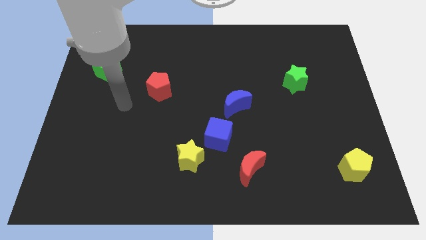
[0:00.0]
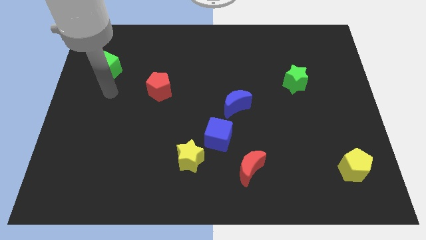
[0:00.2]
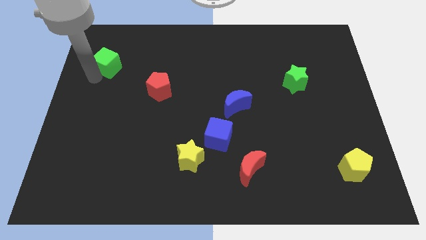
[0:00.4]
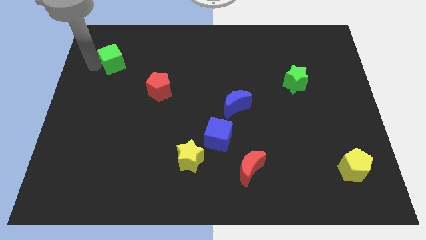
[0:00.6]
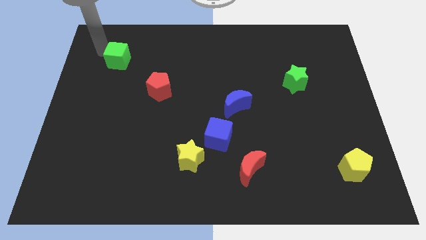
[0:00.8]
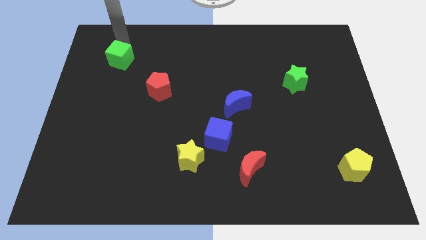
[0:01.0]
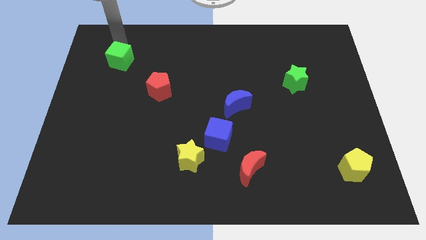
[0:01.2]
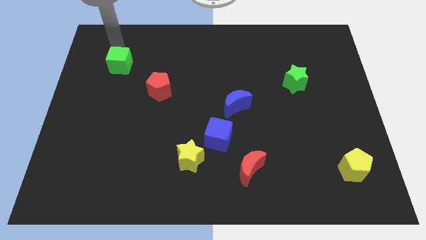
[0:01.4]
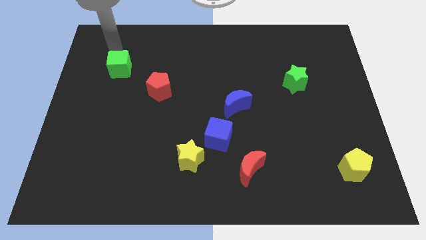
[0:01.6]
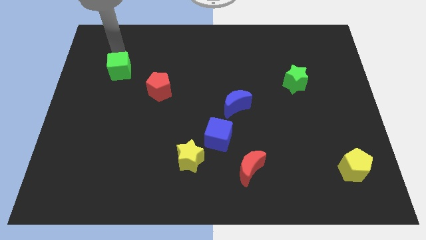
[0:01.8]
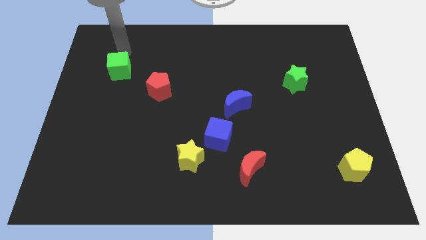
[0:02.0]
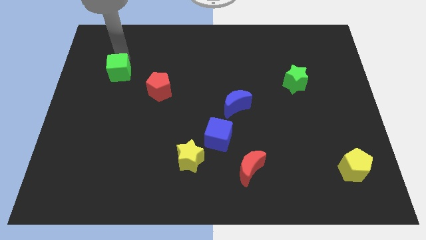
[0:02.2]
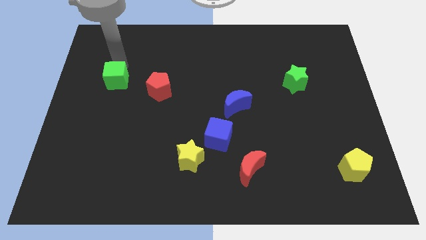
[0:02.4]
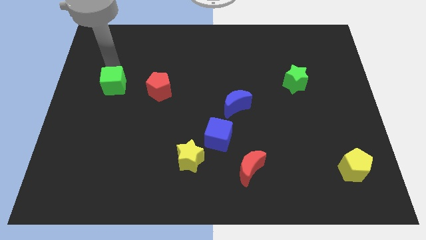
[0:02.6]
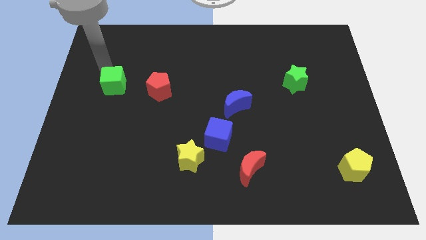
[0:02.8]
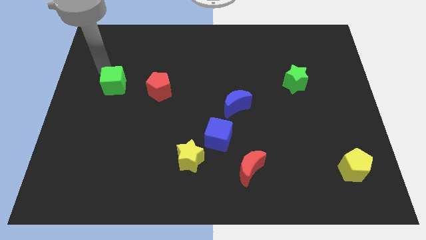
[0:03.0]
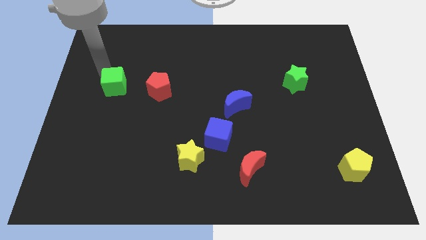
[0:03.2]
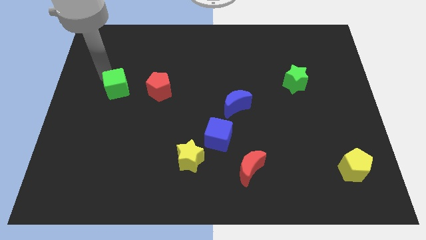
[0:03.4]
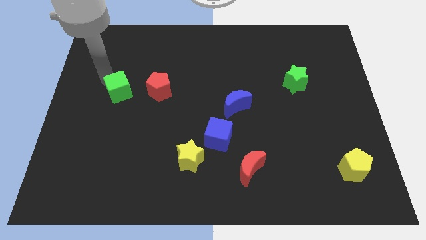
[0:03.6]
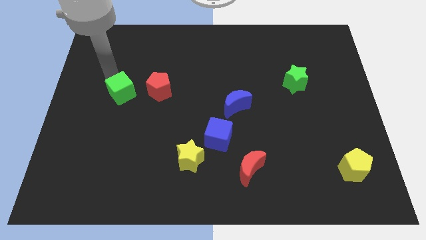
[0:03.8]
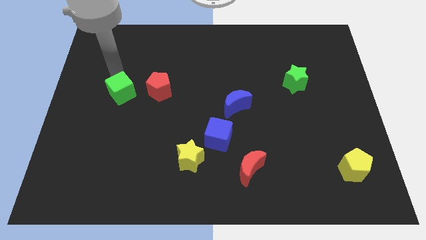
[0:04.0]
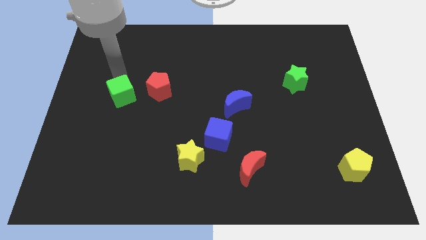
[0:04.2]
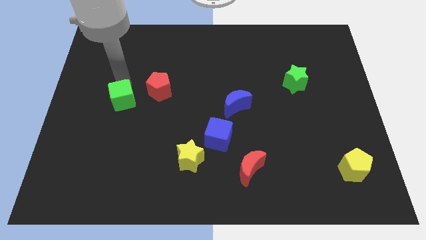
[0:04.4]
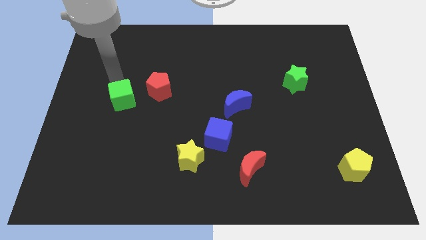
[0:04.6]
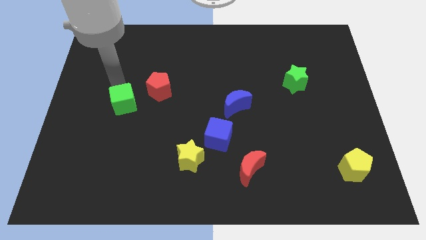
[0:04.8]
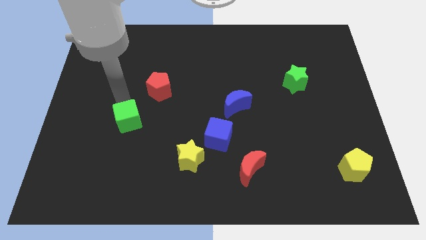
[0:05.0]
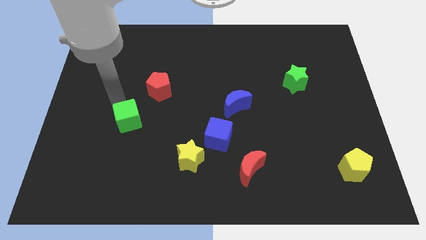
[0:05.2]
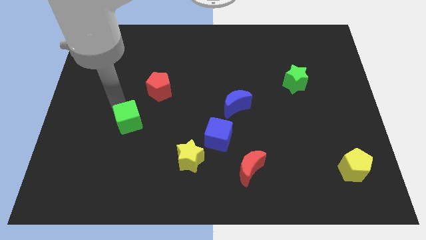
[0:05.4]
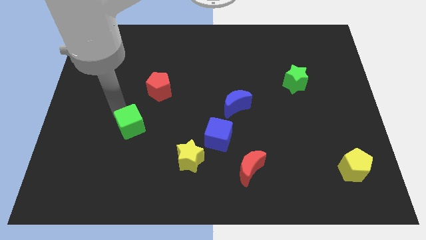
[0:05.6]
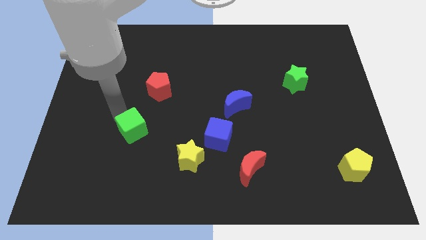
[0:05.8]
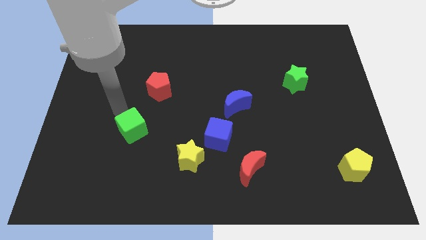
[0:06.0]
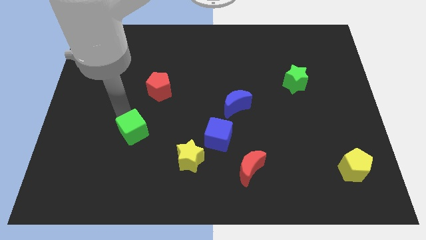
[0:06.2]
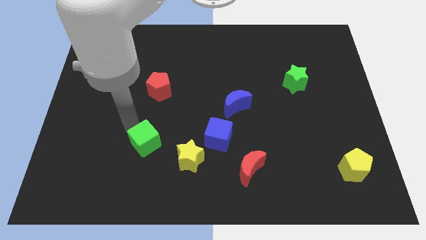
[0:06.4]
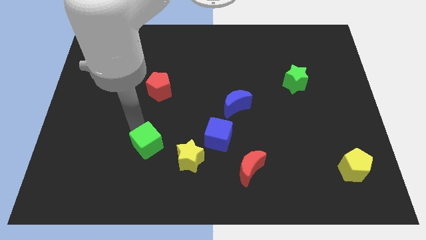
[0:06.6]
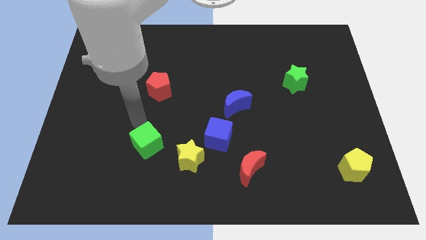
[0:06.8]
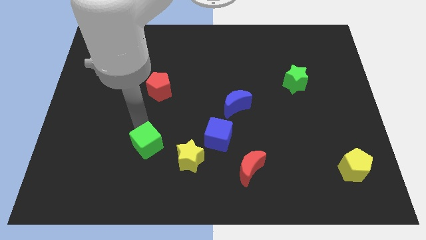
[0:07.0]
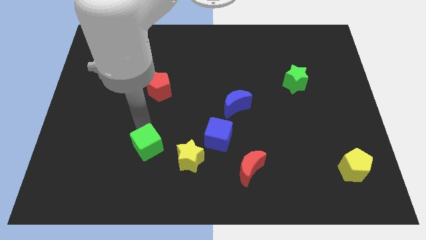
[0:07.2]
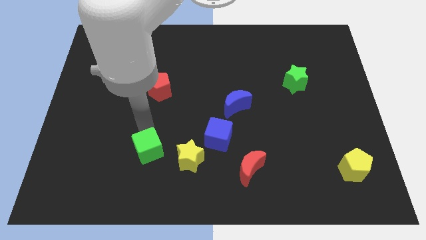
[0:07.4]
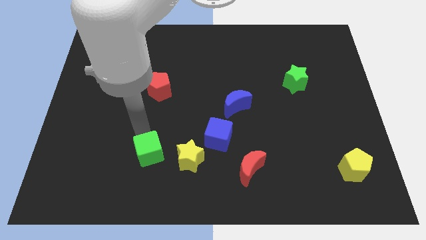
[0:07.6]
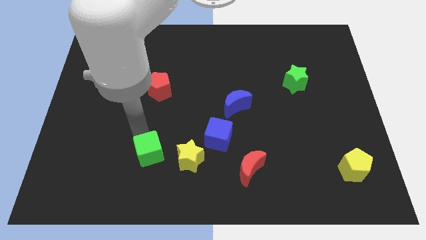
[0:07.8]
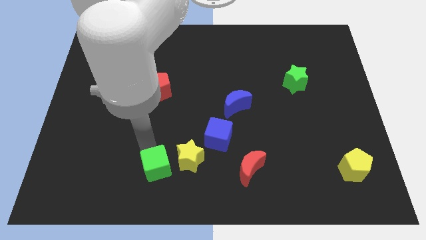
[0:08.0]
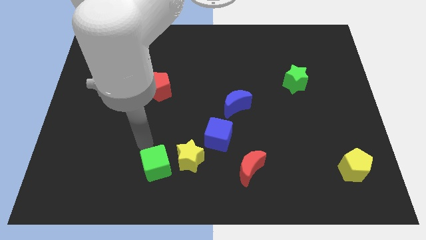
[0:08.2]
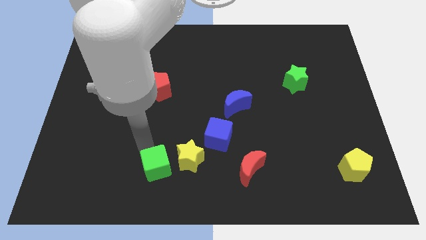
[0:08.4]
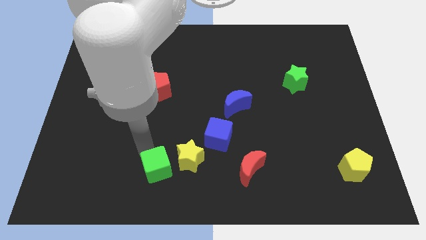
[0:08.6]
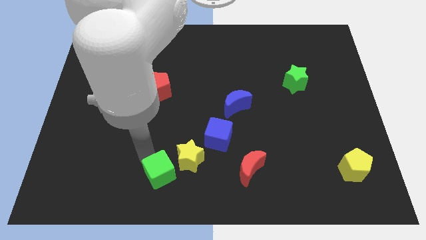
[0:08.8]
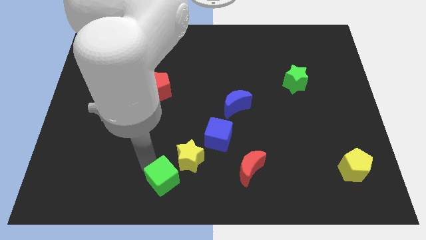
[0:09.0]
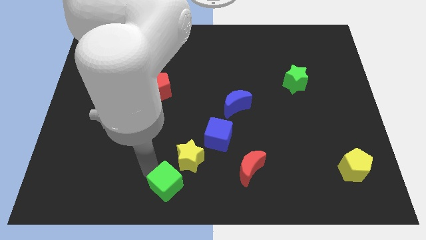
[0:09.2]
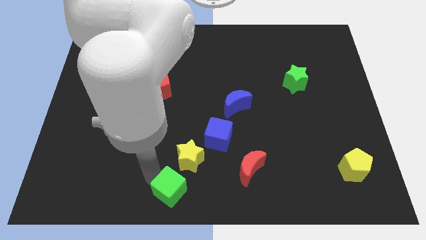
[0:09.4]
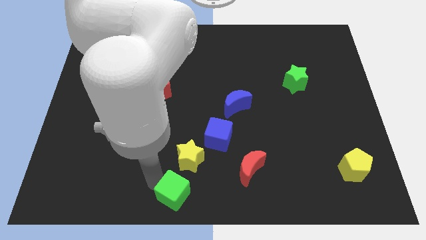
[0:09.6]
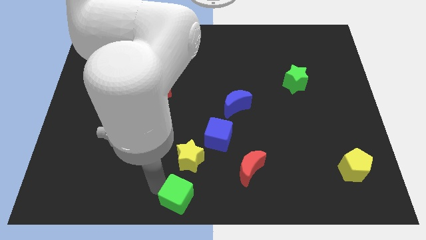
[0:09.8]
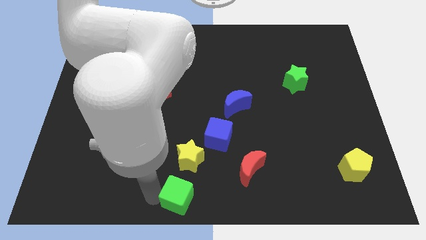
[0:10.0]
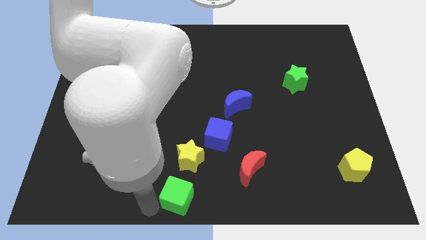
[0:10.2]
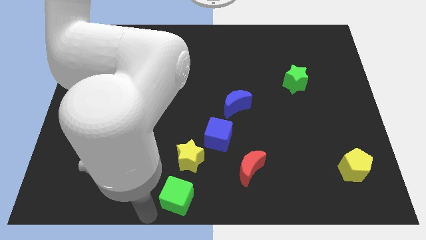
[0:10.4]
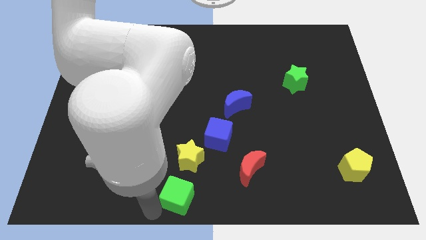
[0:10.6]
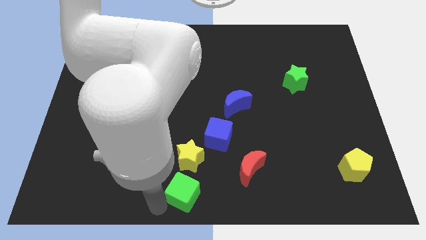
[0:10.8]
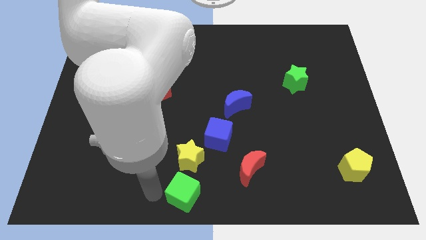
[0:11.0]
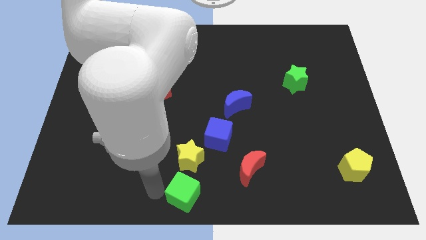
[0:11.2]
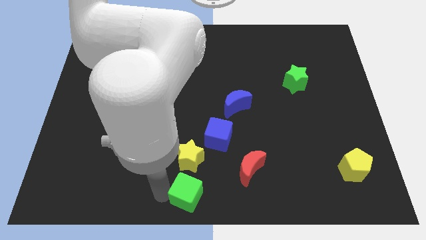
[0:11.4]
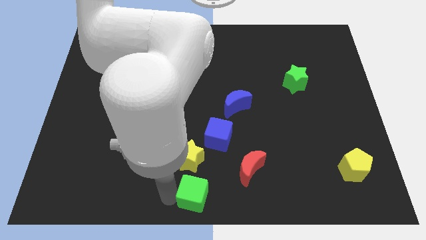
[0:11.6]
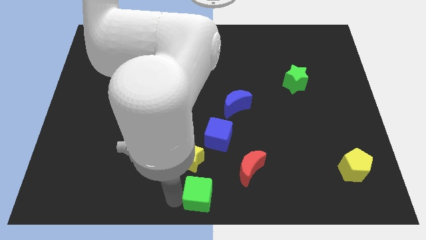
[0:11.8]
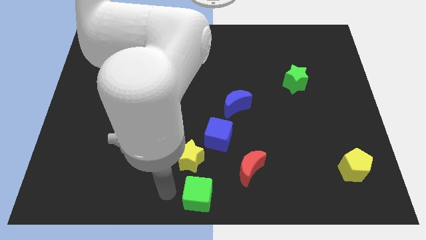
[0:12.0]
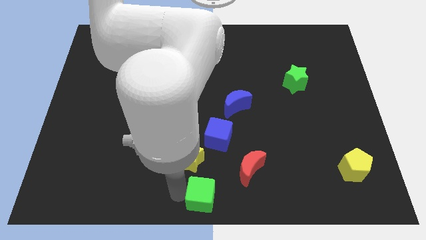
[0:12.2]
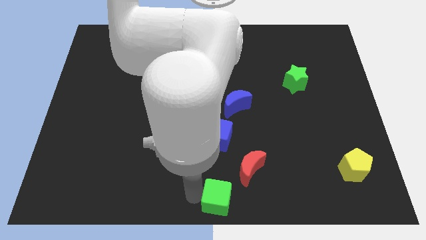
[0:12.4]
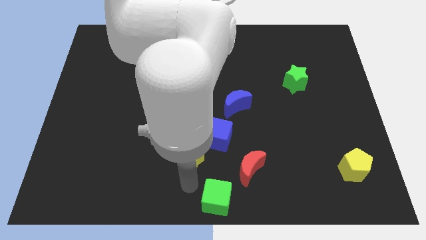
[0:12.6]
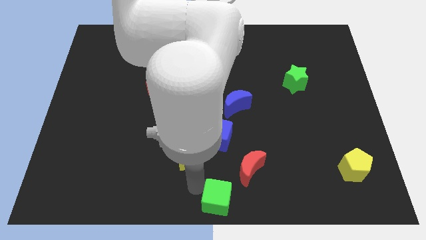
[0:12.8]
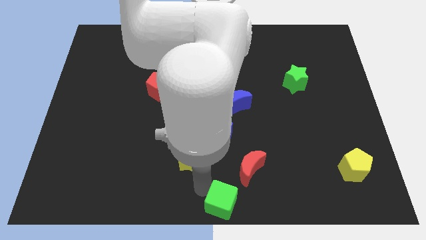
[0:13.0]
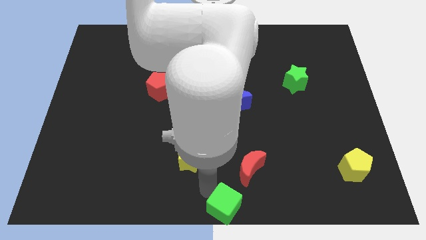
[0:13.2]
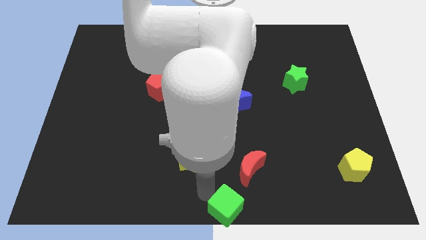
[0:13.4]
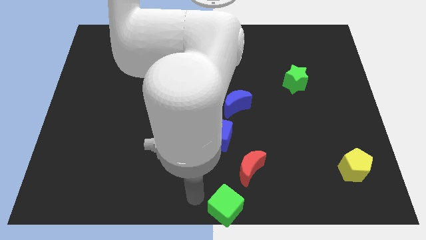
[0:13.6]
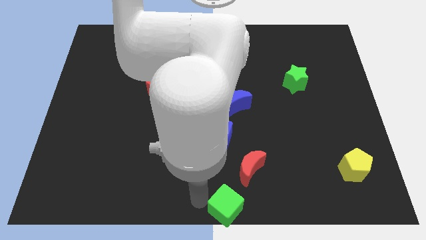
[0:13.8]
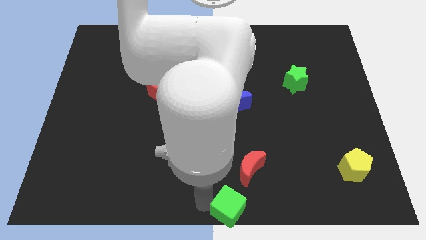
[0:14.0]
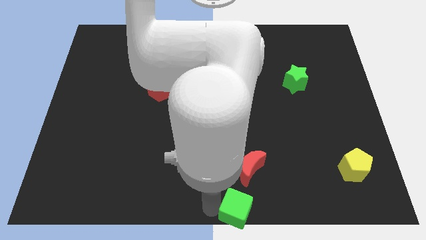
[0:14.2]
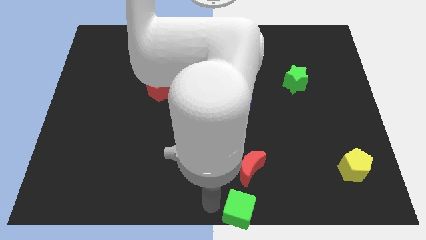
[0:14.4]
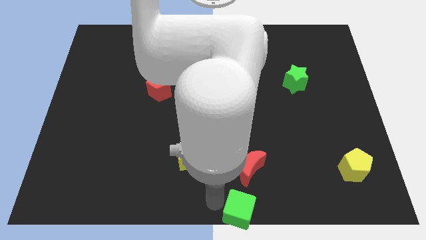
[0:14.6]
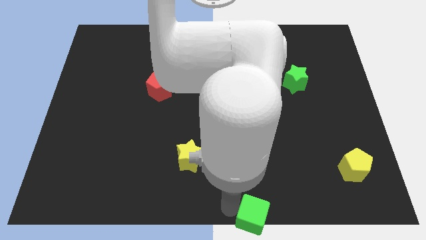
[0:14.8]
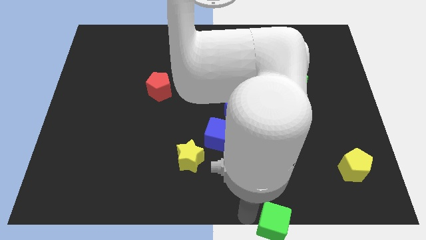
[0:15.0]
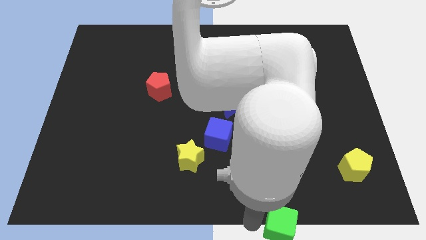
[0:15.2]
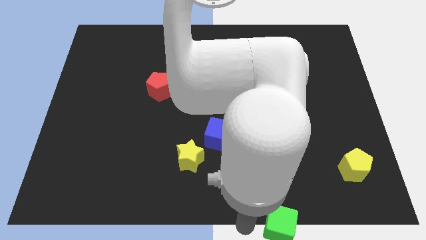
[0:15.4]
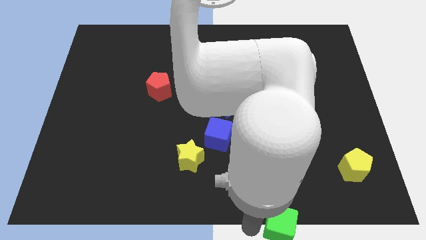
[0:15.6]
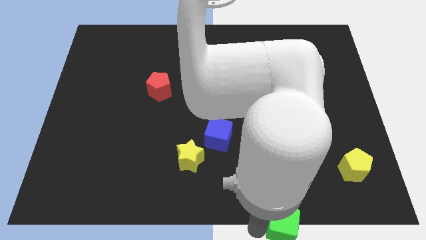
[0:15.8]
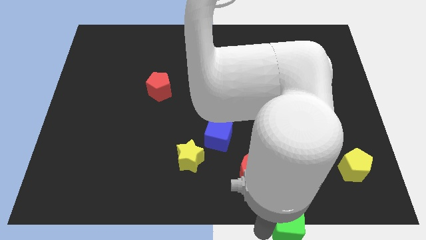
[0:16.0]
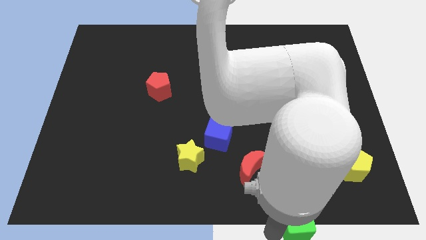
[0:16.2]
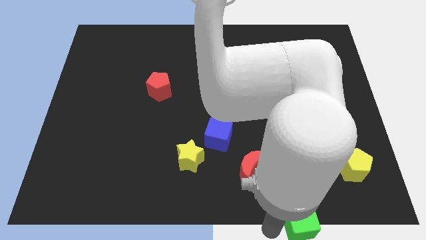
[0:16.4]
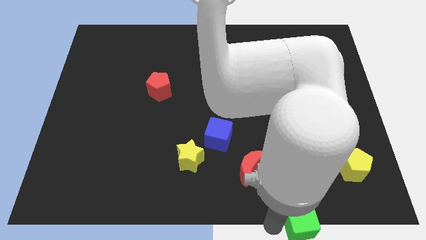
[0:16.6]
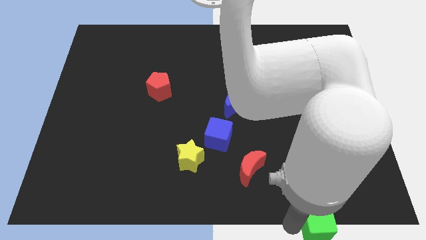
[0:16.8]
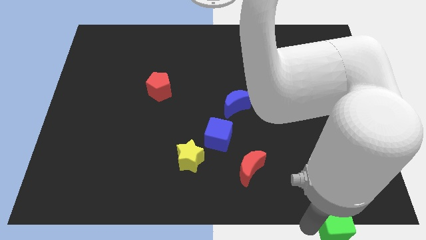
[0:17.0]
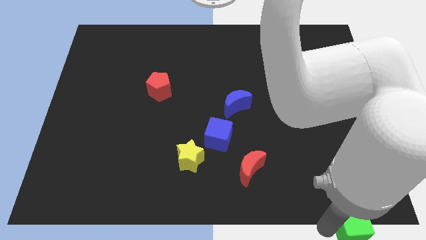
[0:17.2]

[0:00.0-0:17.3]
put the green cube to the bottom right
